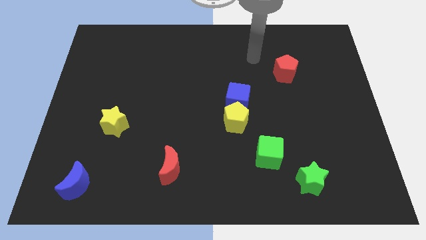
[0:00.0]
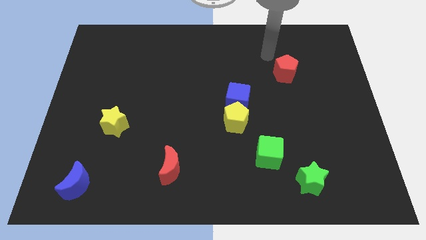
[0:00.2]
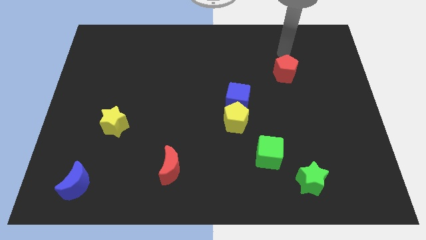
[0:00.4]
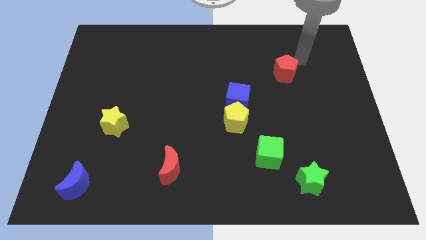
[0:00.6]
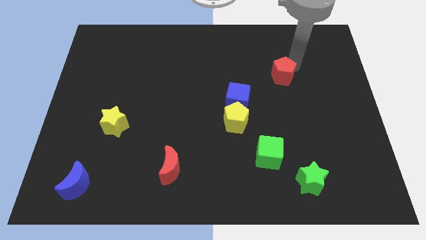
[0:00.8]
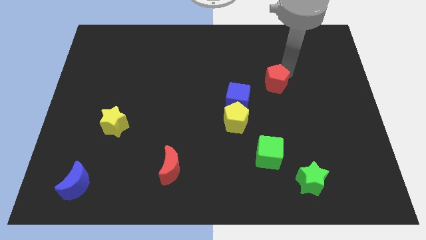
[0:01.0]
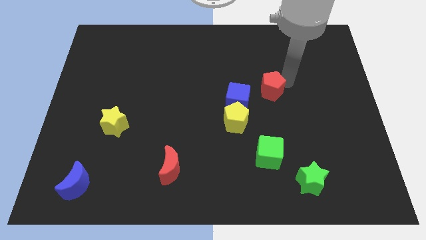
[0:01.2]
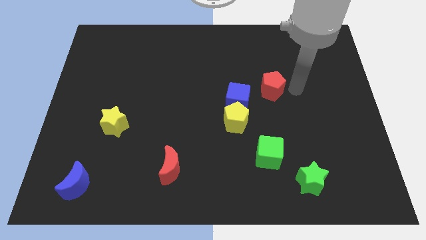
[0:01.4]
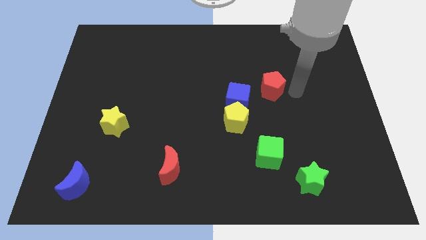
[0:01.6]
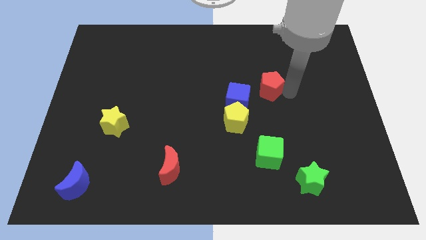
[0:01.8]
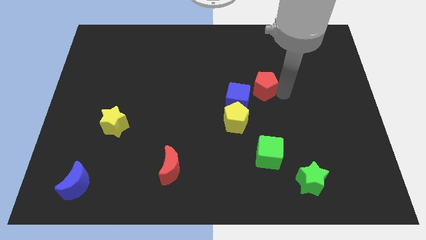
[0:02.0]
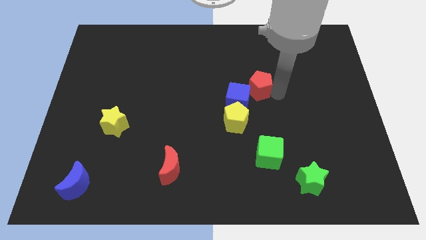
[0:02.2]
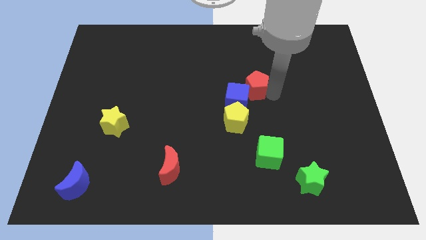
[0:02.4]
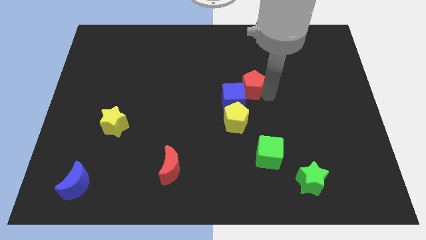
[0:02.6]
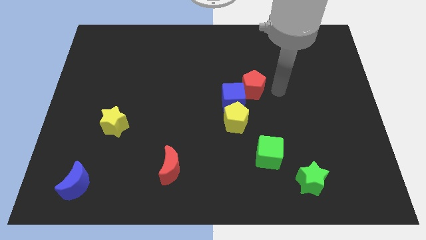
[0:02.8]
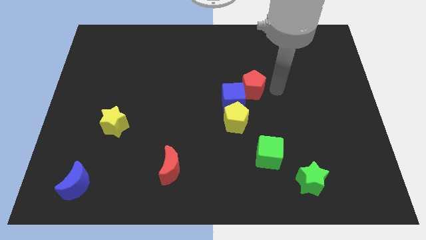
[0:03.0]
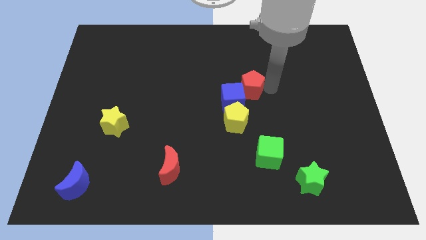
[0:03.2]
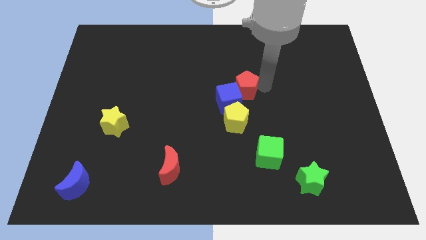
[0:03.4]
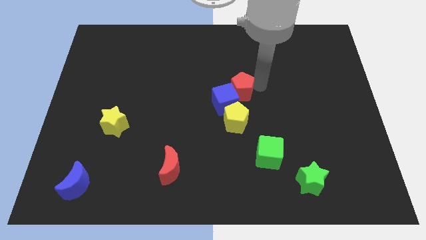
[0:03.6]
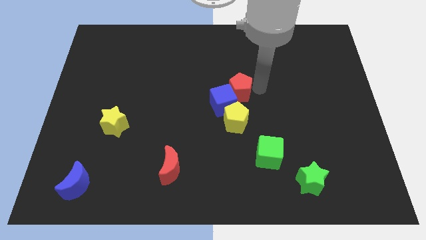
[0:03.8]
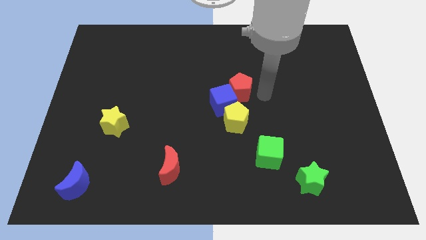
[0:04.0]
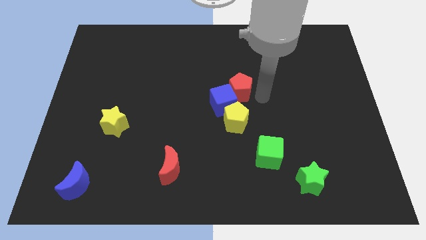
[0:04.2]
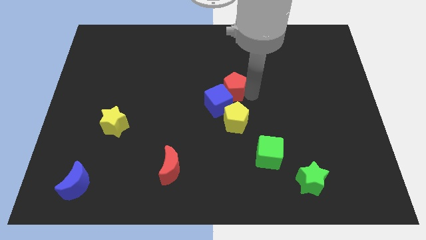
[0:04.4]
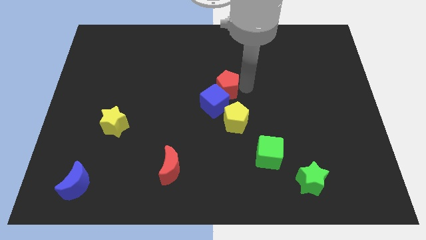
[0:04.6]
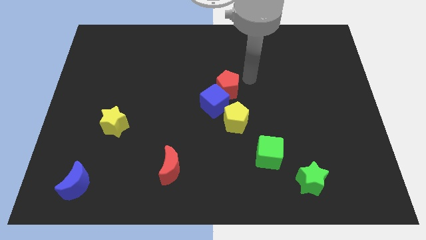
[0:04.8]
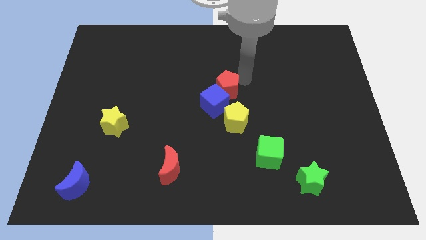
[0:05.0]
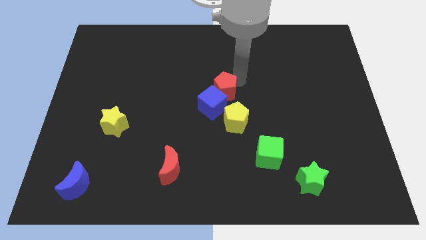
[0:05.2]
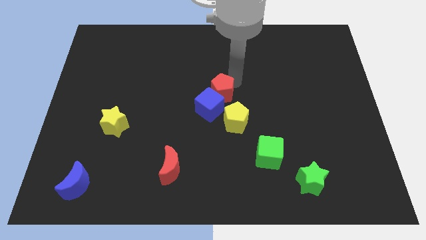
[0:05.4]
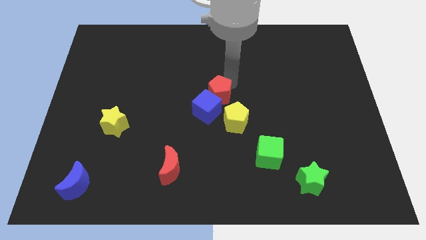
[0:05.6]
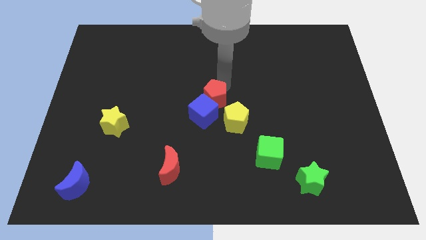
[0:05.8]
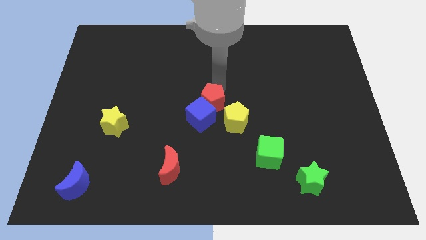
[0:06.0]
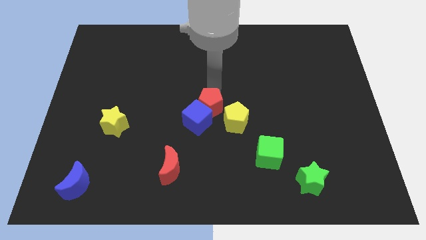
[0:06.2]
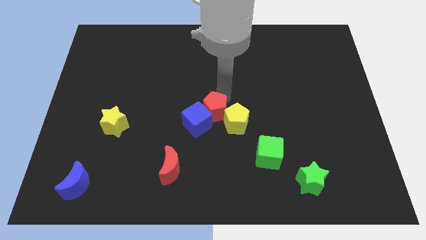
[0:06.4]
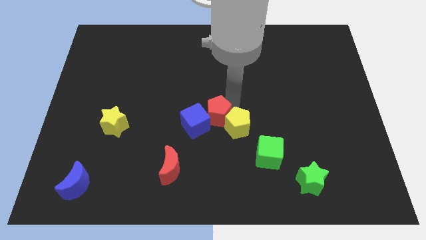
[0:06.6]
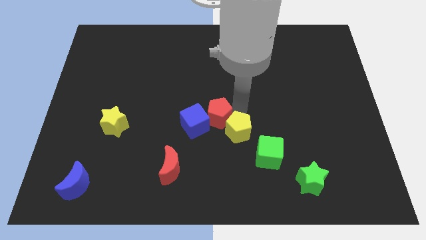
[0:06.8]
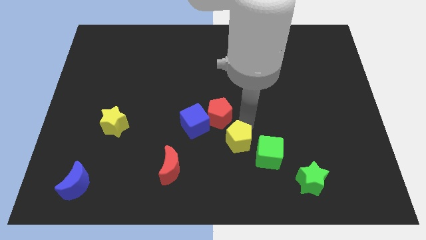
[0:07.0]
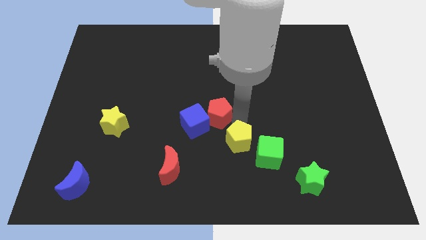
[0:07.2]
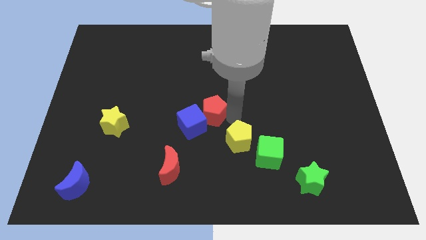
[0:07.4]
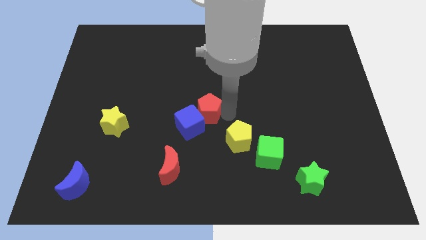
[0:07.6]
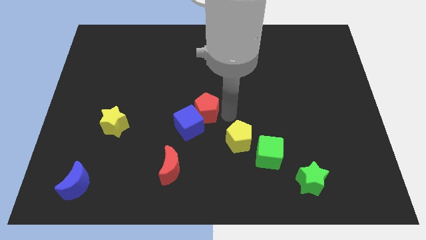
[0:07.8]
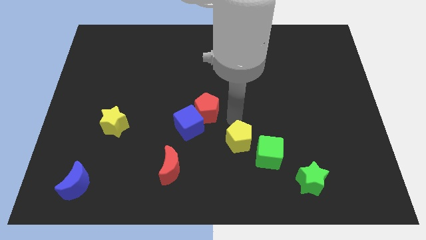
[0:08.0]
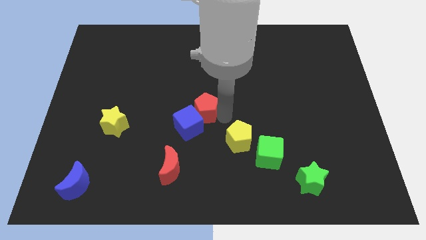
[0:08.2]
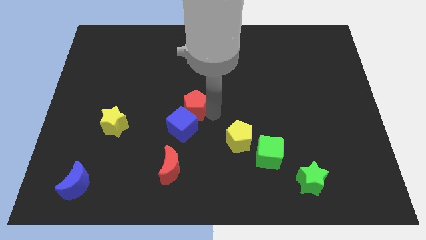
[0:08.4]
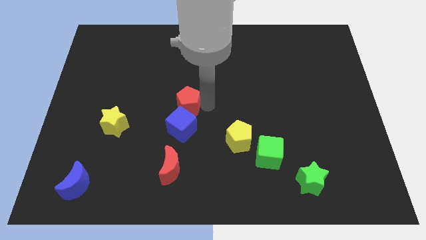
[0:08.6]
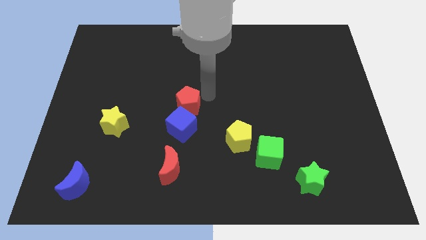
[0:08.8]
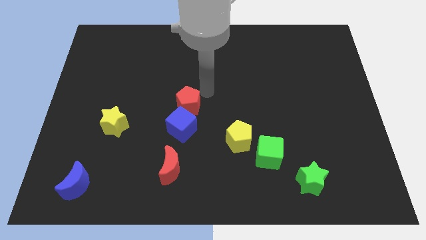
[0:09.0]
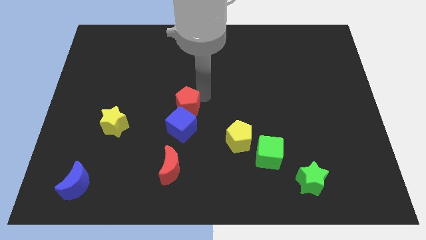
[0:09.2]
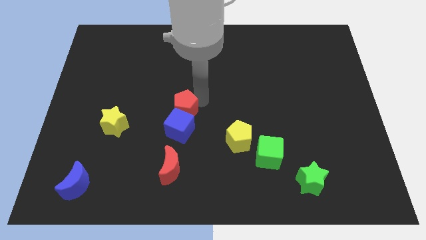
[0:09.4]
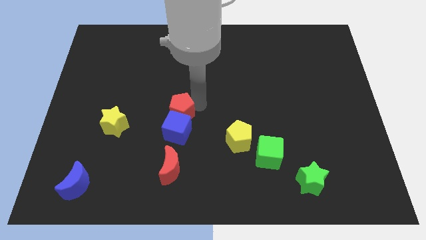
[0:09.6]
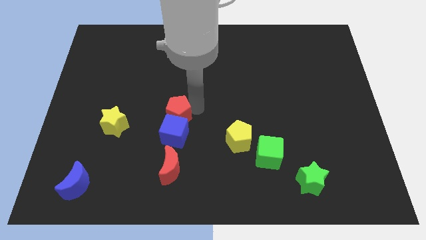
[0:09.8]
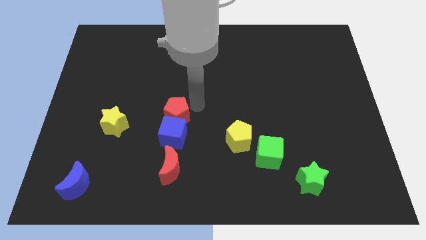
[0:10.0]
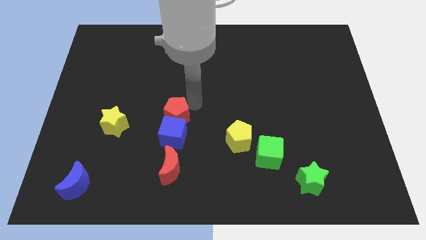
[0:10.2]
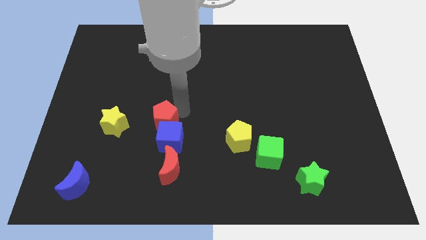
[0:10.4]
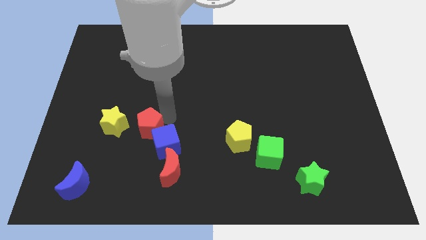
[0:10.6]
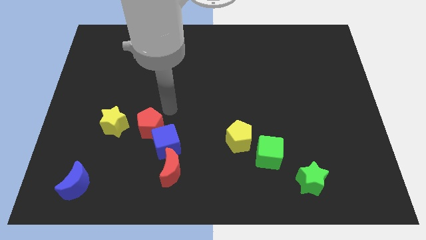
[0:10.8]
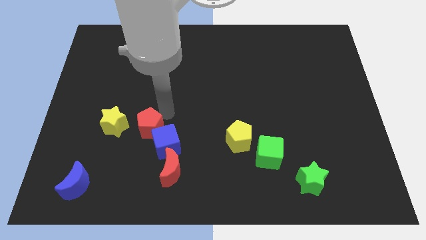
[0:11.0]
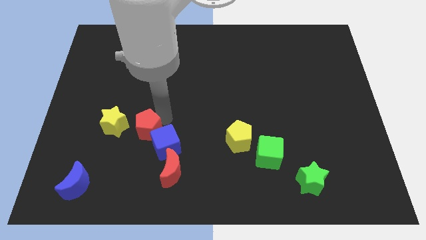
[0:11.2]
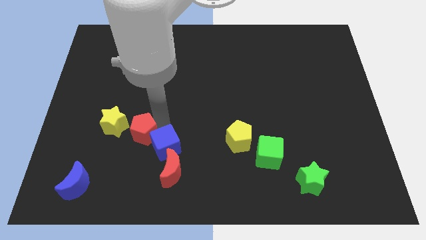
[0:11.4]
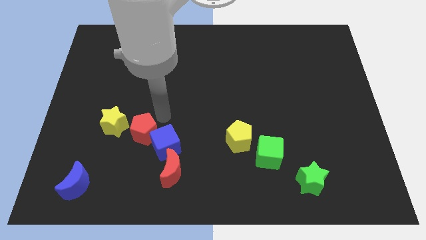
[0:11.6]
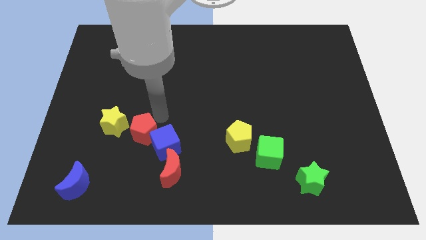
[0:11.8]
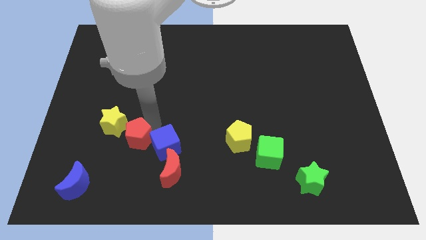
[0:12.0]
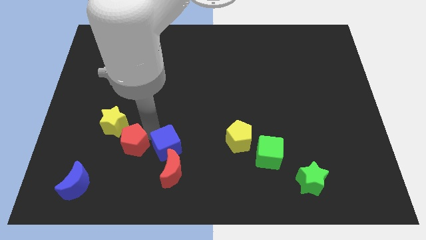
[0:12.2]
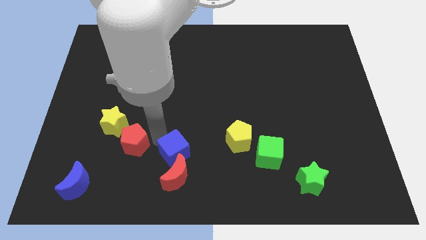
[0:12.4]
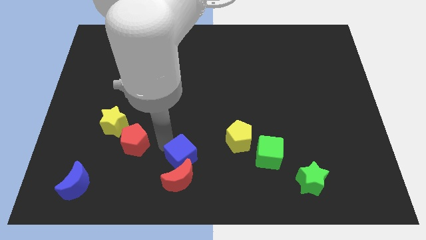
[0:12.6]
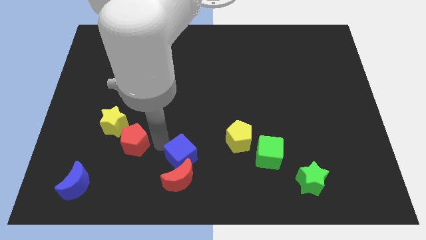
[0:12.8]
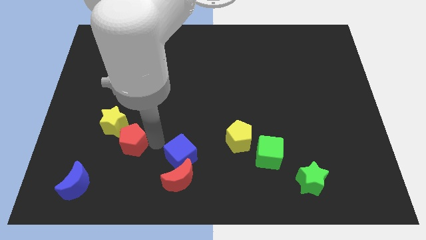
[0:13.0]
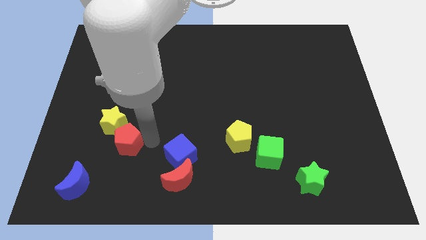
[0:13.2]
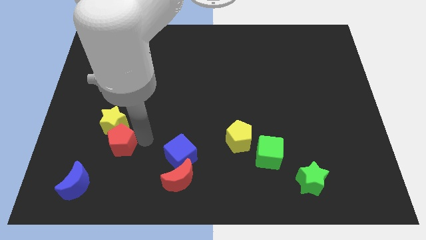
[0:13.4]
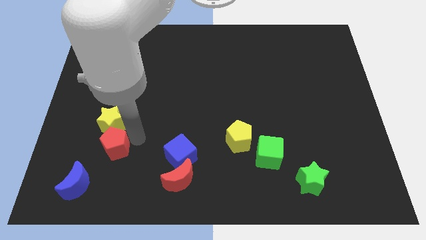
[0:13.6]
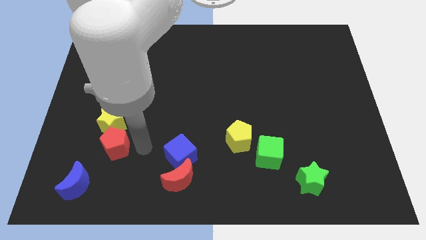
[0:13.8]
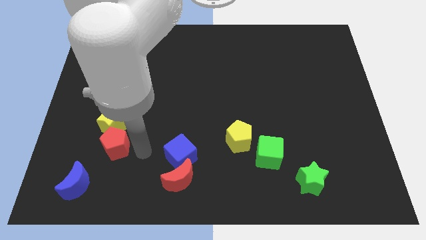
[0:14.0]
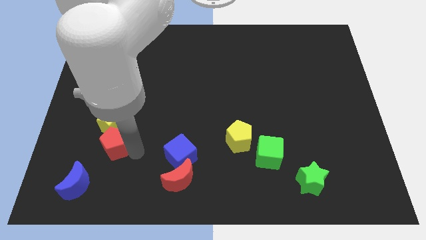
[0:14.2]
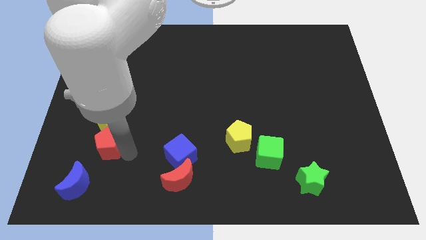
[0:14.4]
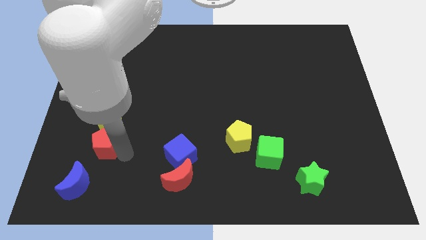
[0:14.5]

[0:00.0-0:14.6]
push the red pentagon above the blue moon
